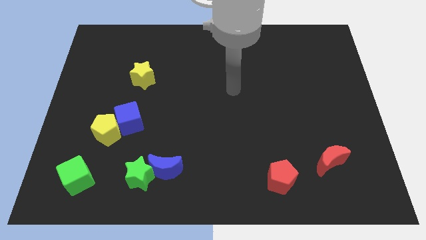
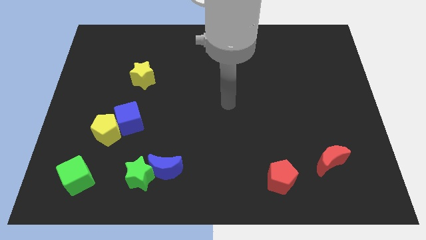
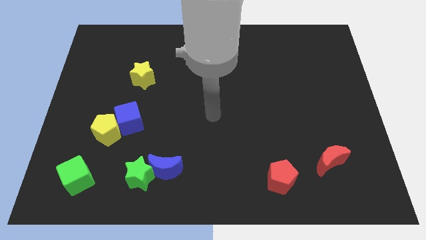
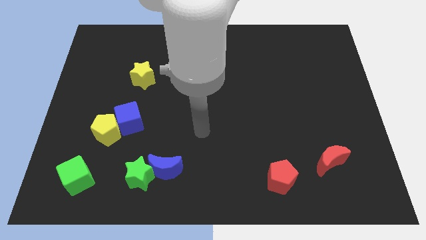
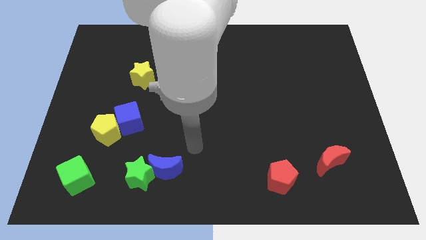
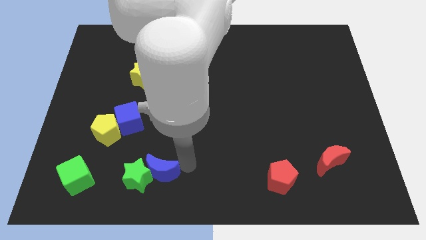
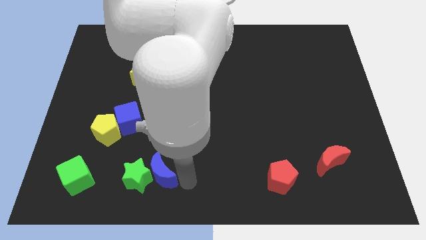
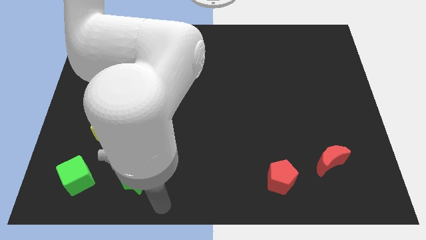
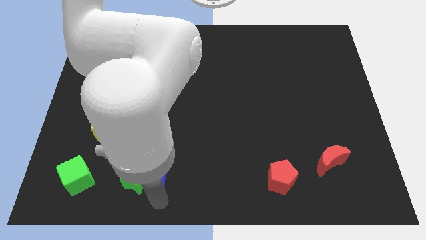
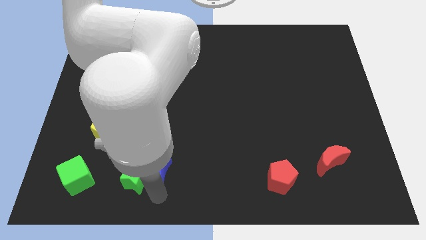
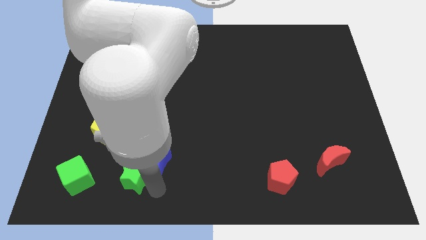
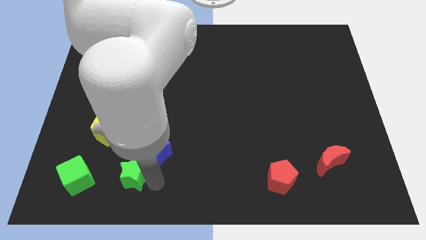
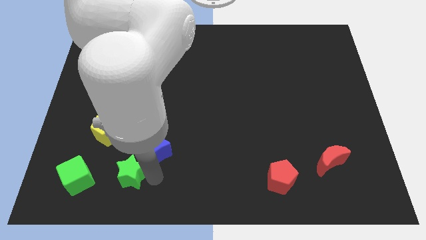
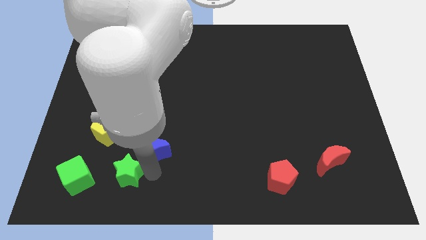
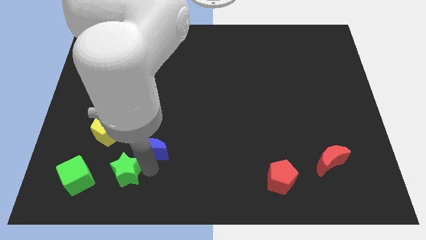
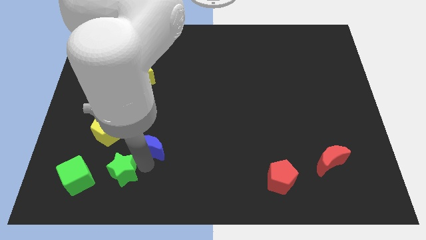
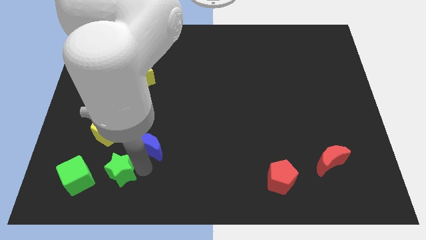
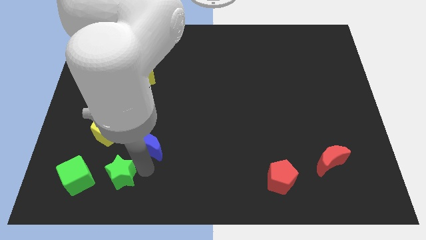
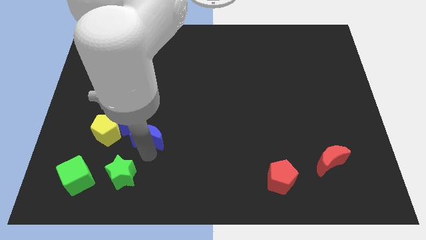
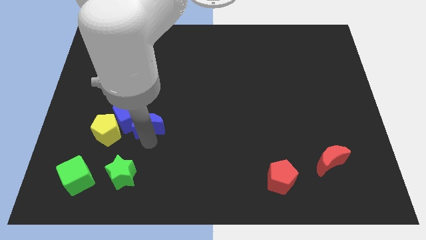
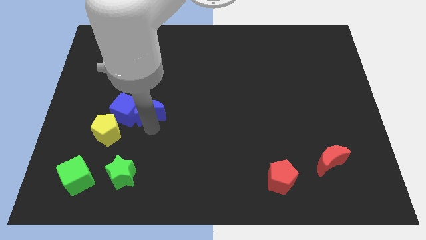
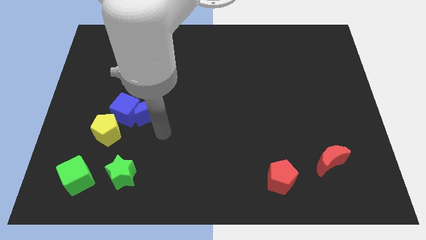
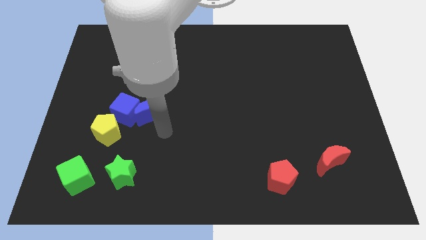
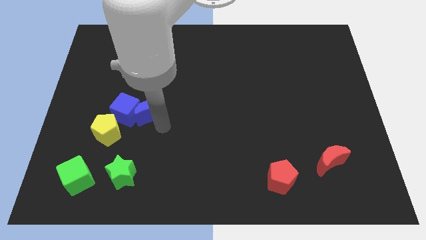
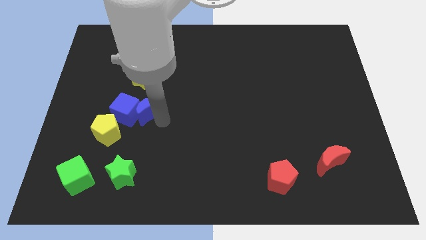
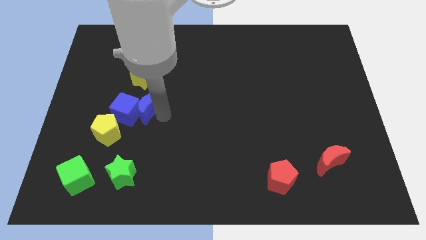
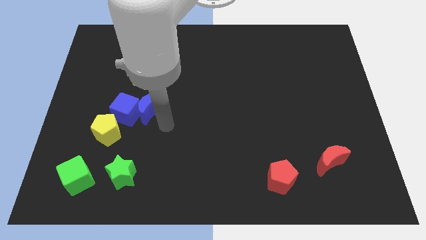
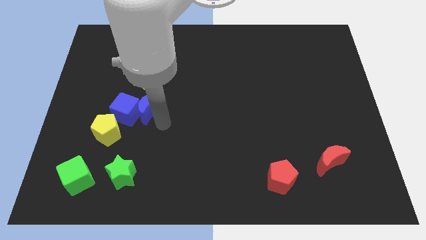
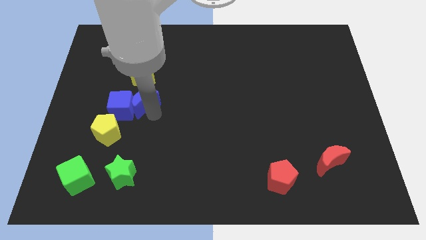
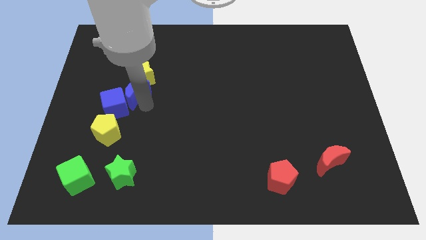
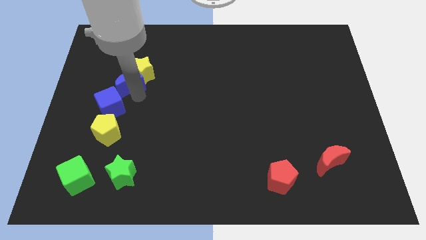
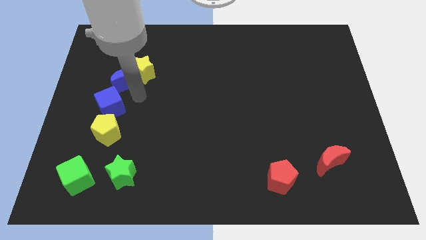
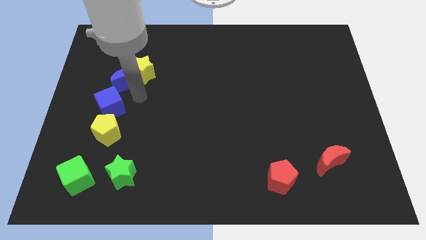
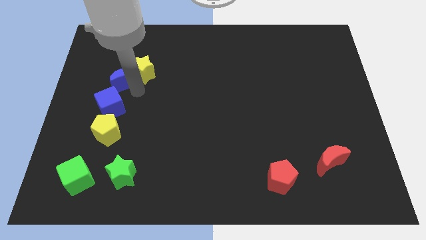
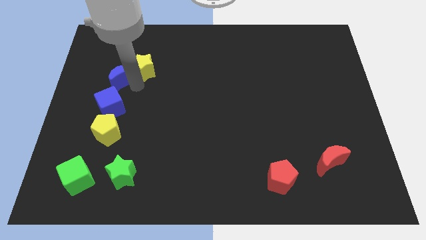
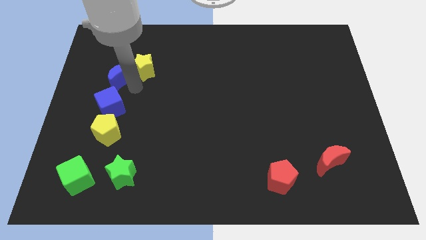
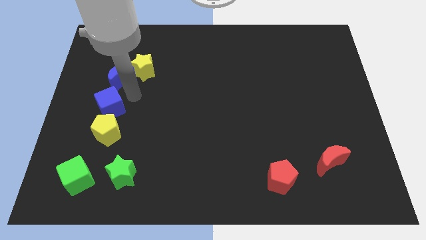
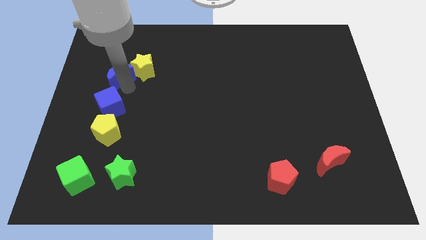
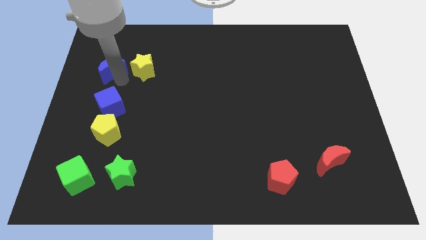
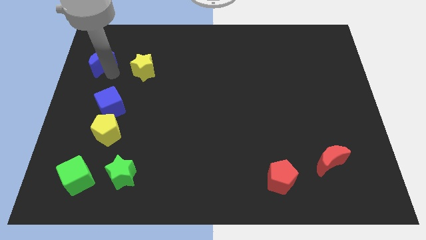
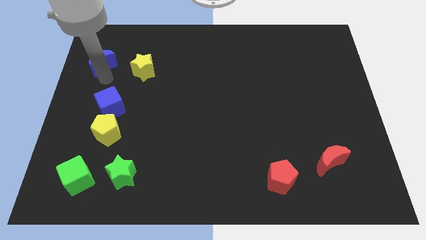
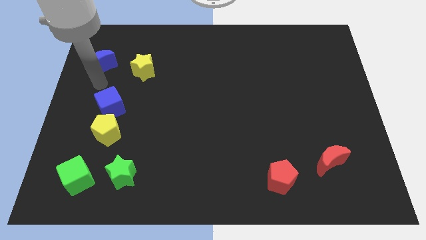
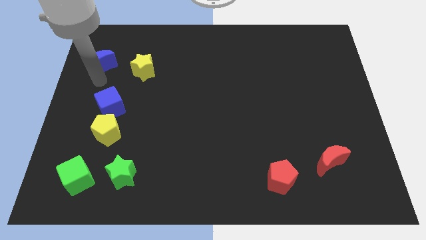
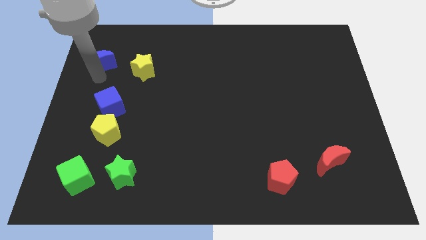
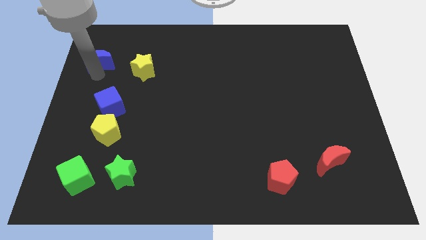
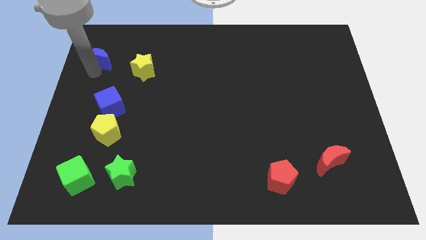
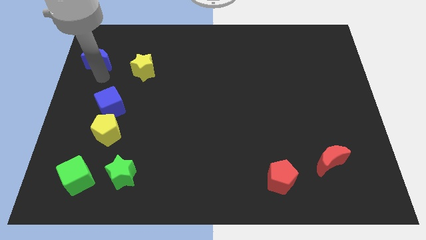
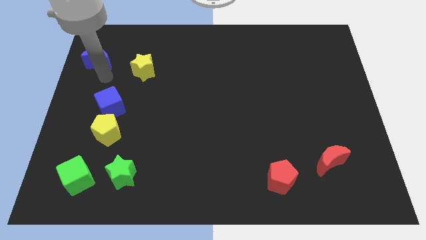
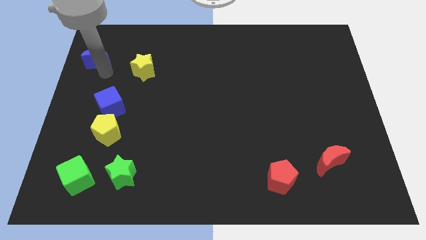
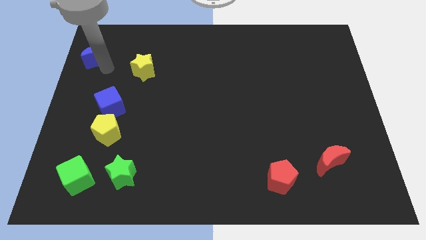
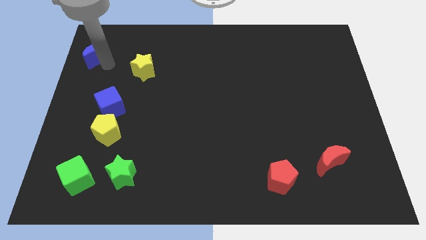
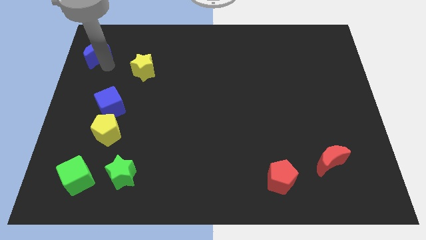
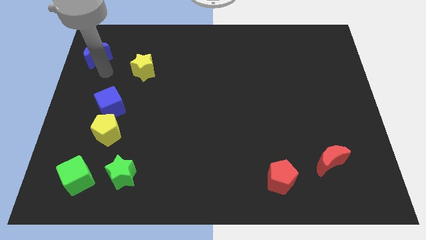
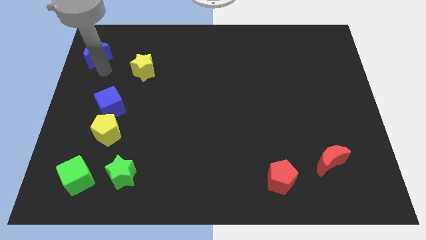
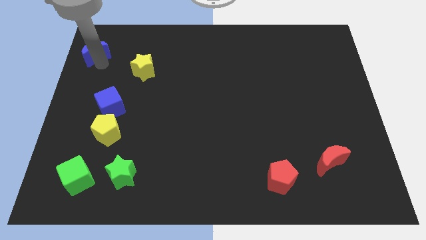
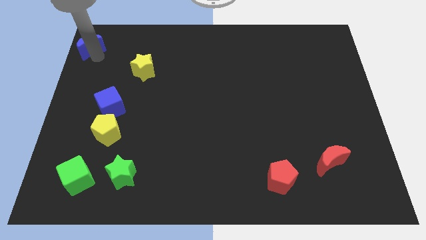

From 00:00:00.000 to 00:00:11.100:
put the blue moon to the top left of the board

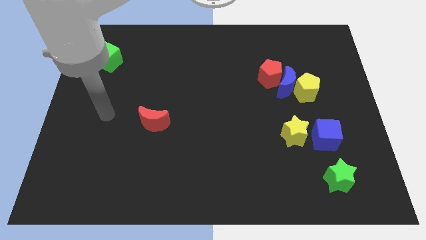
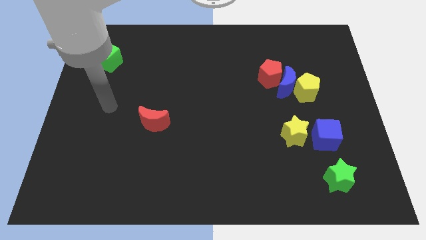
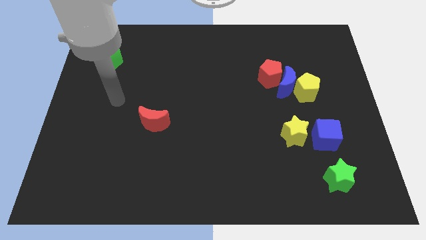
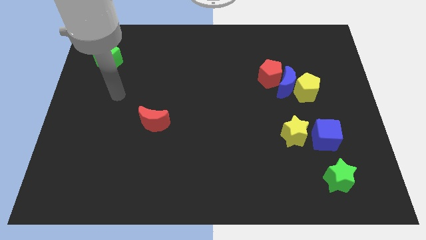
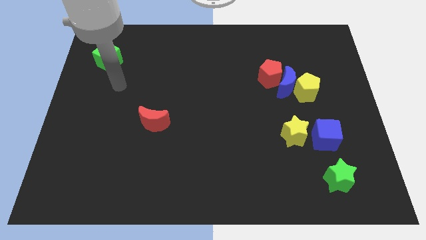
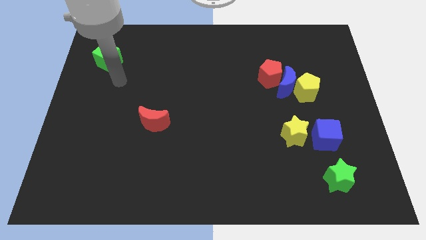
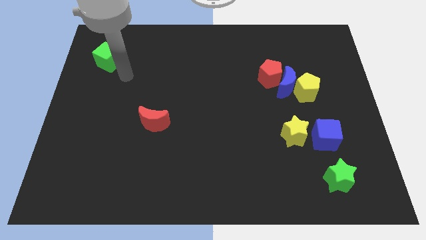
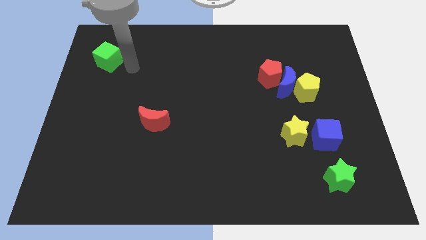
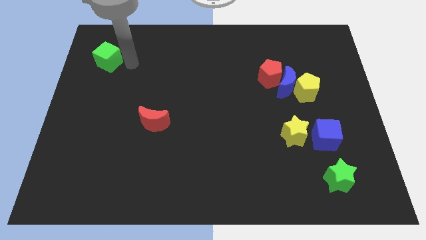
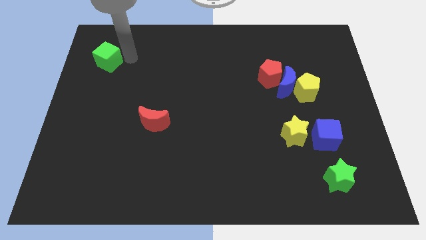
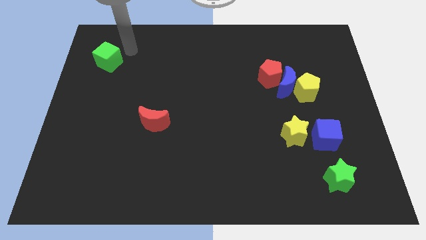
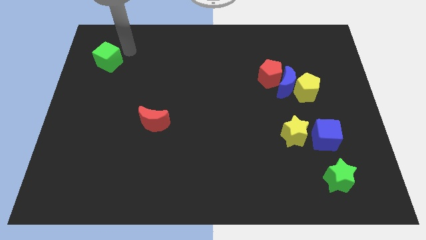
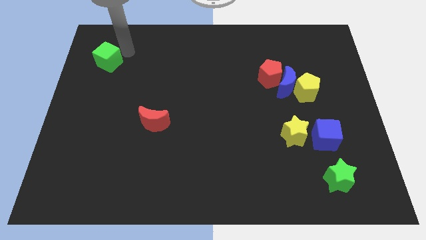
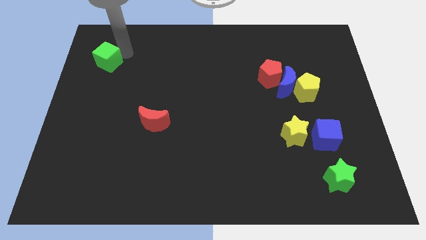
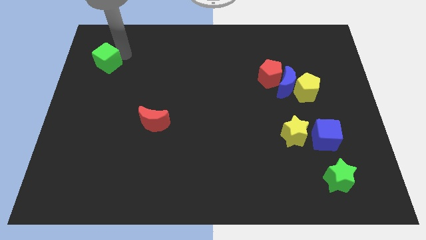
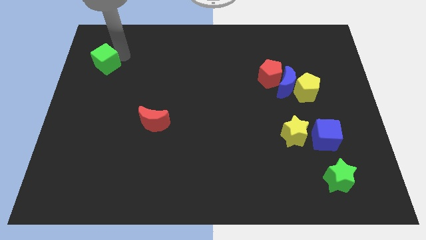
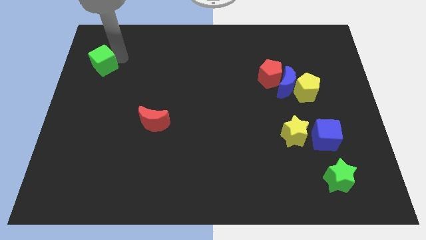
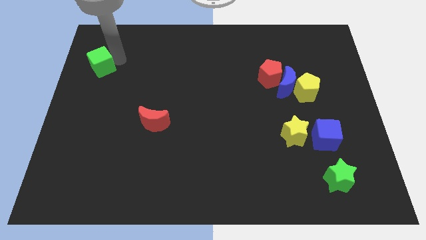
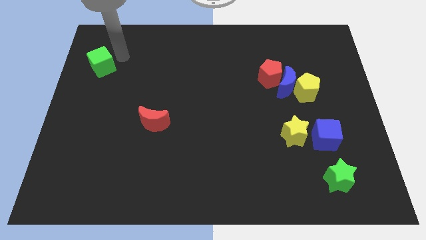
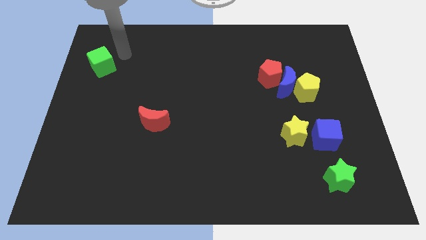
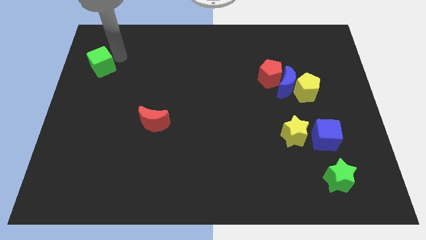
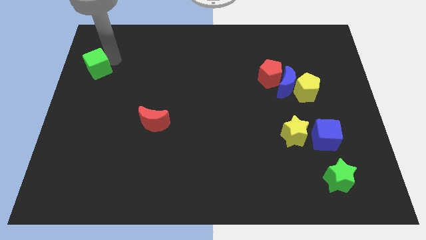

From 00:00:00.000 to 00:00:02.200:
slide the green cube to the left side of the board
